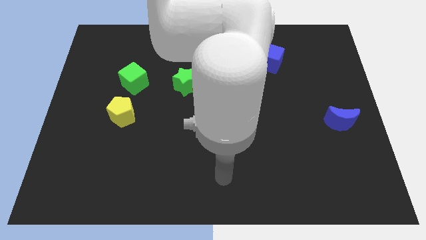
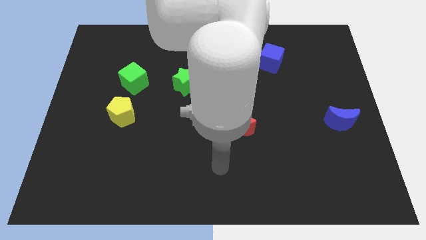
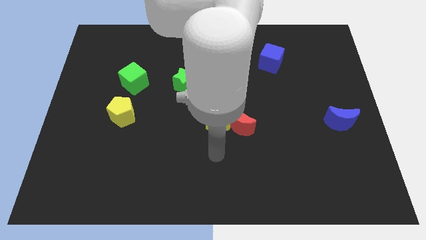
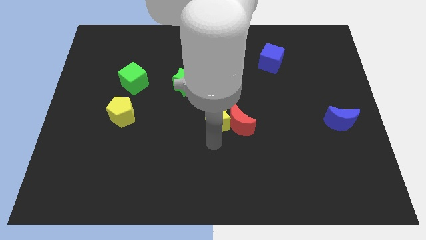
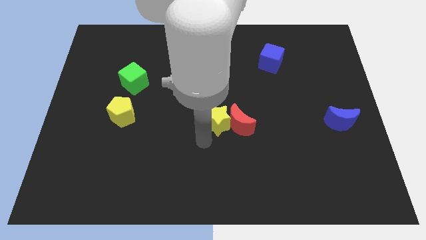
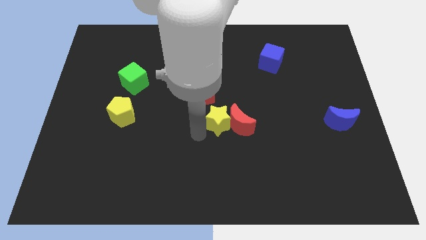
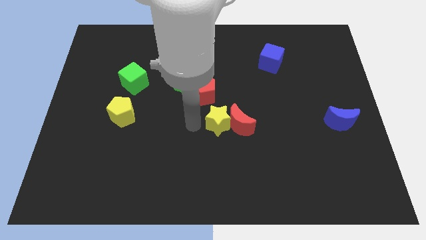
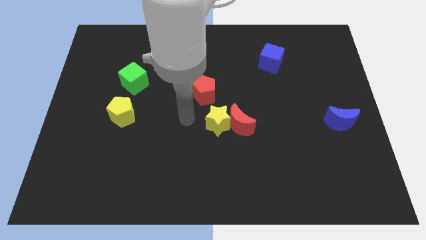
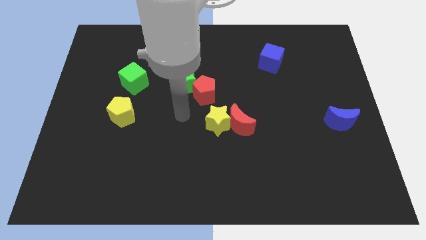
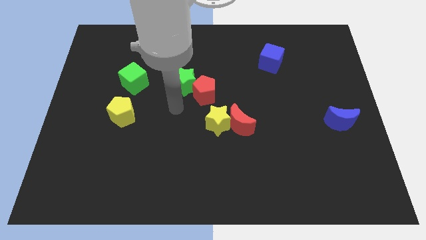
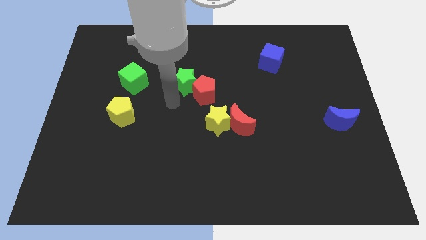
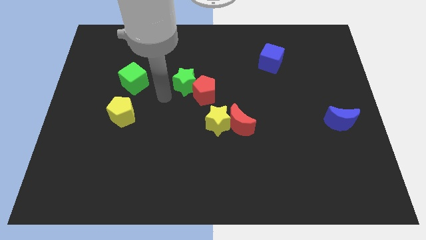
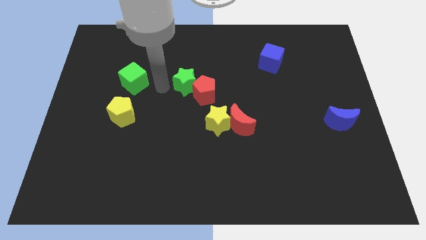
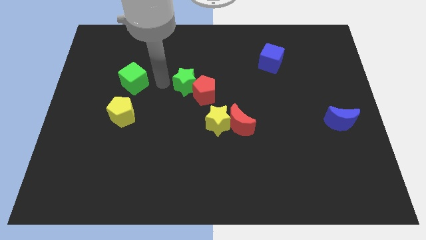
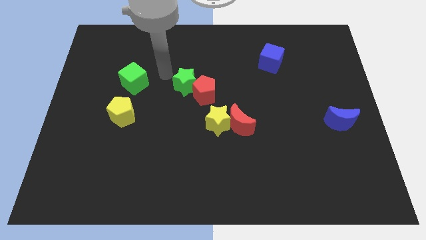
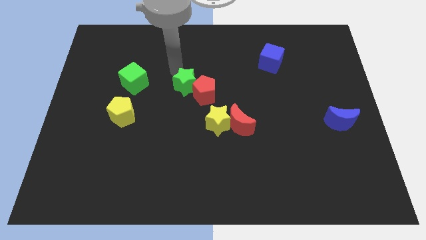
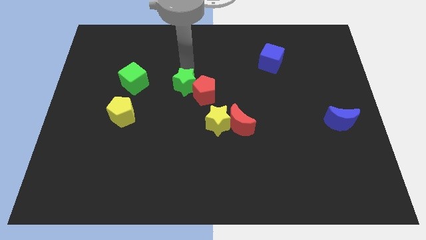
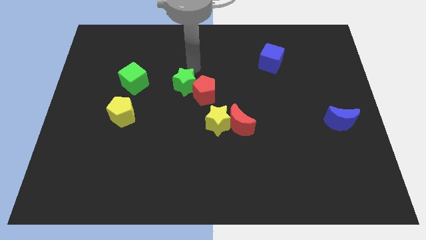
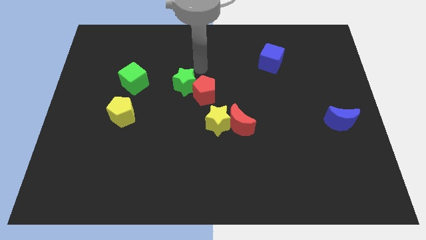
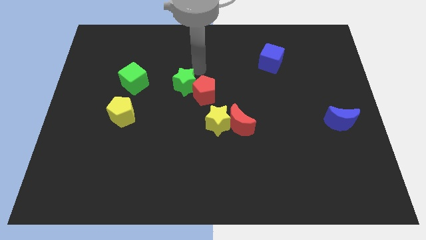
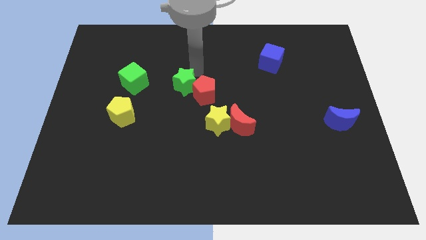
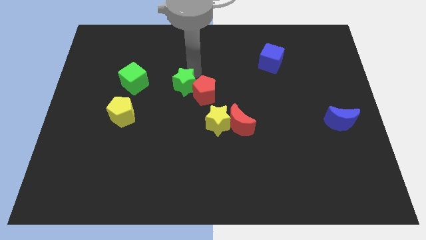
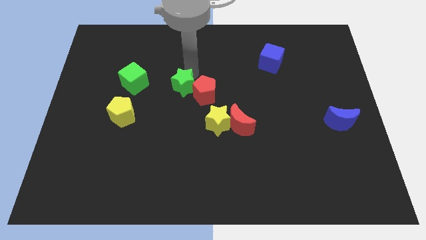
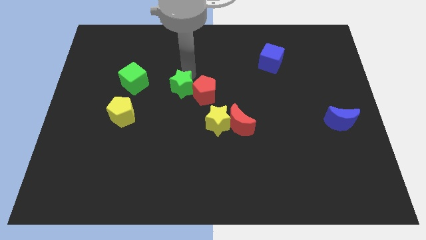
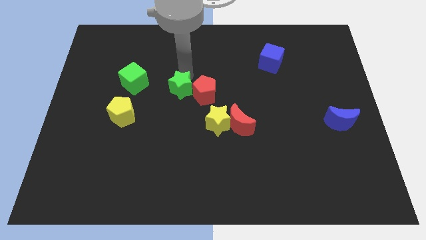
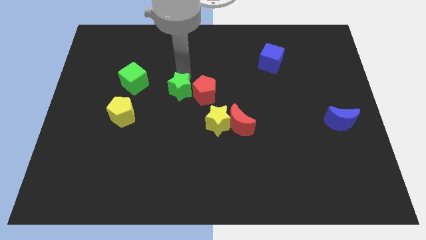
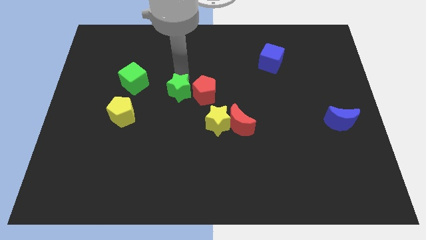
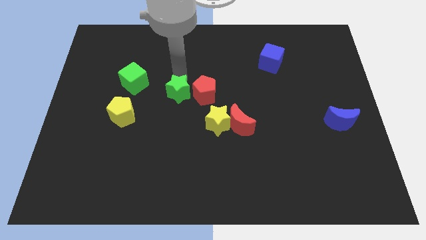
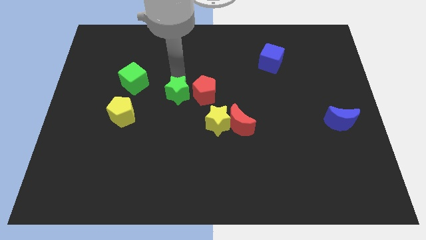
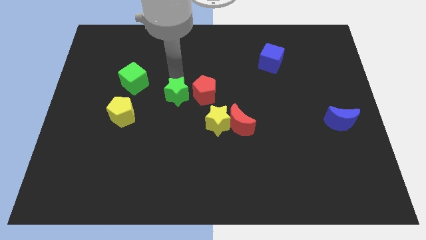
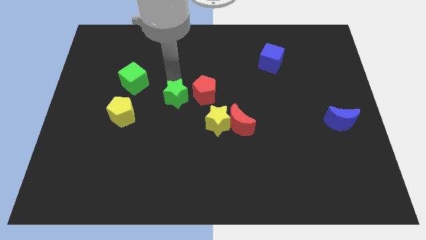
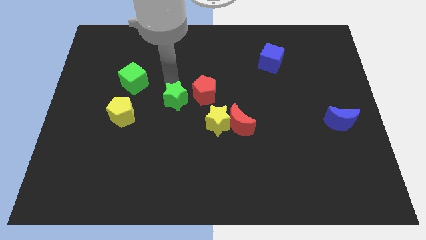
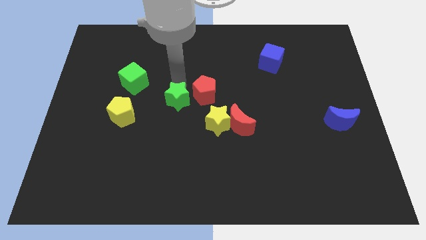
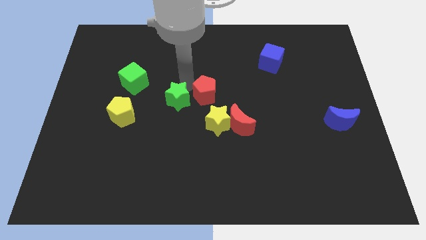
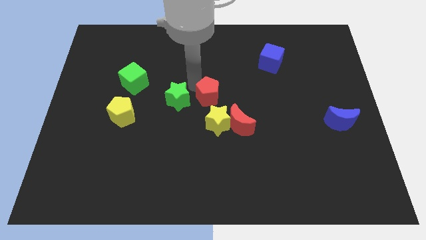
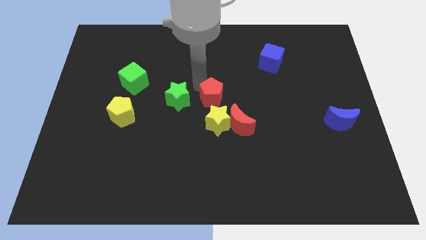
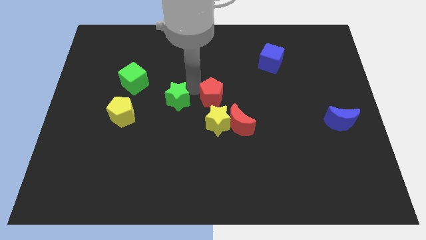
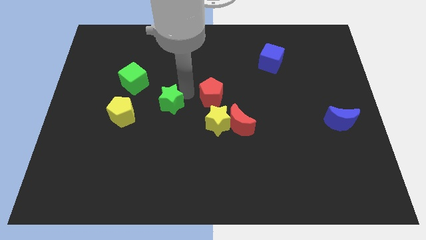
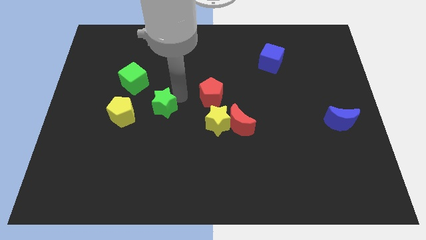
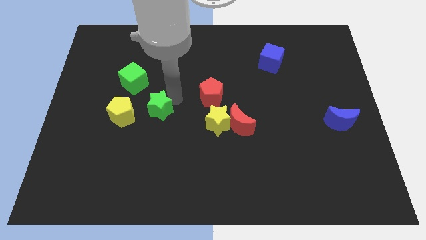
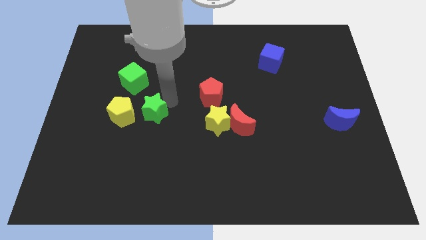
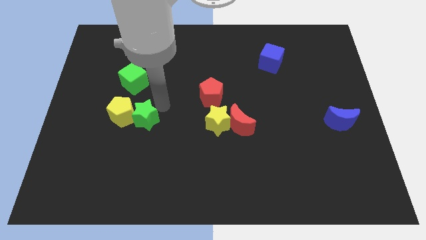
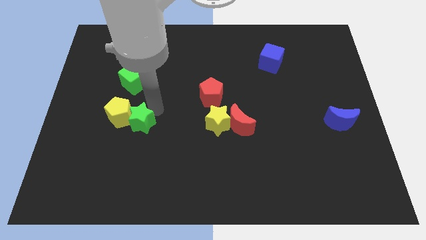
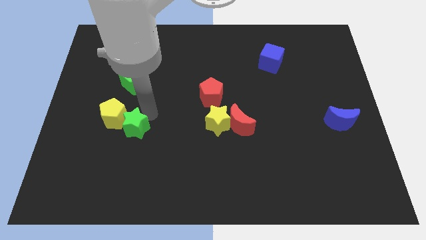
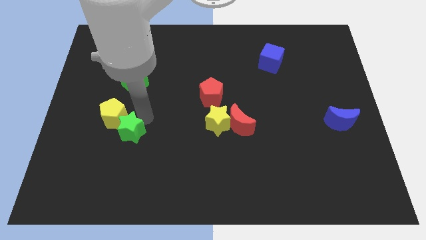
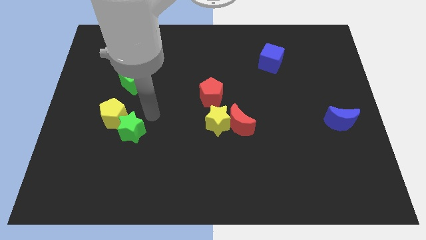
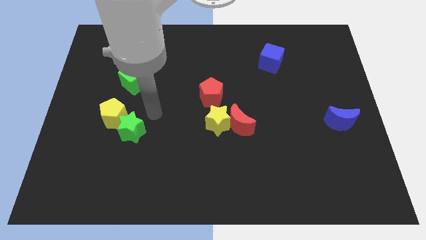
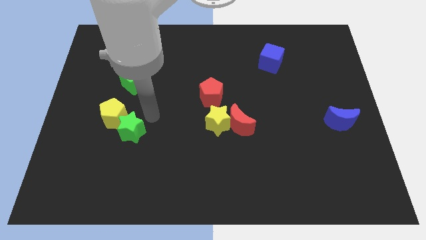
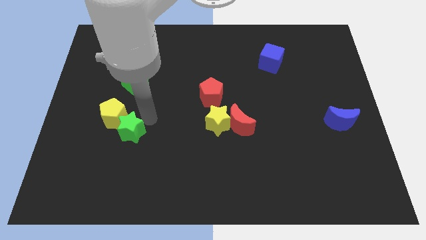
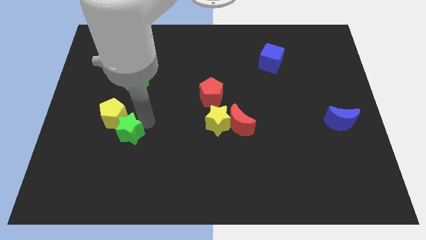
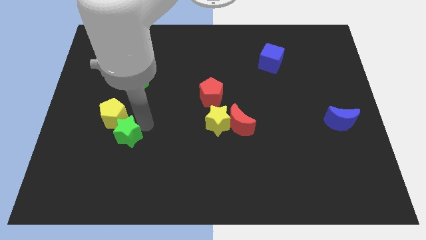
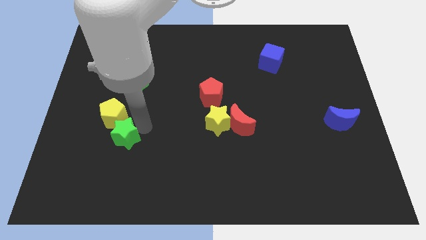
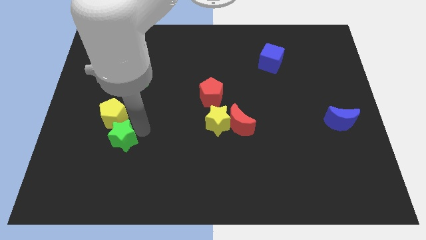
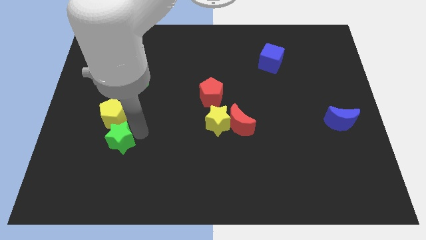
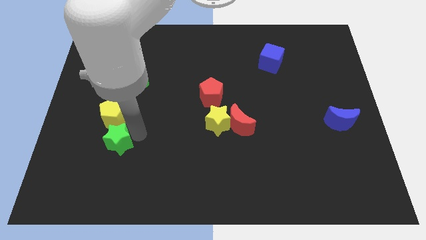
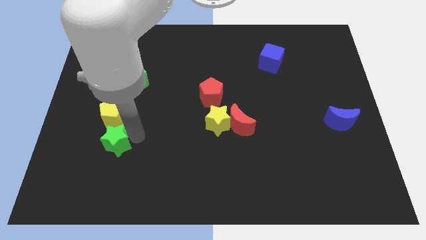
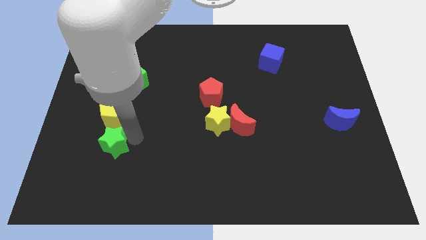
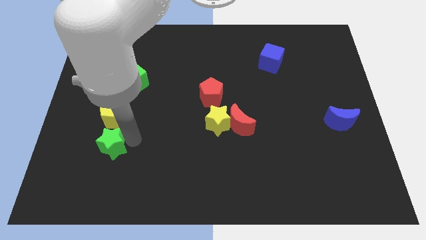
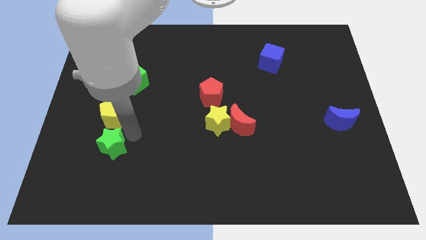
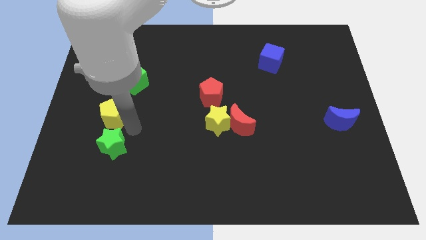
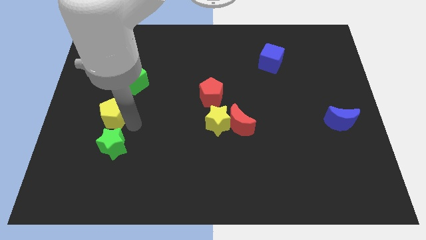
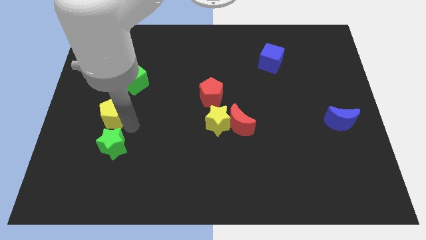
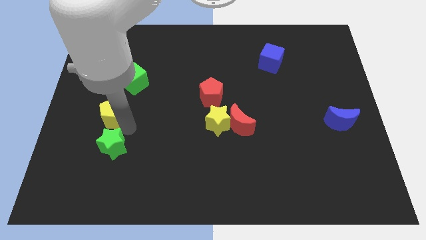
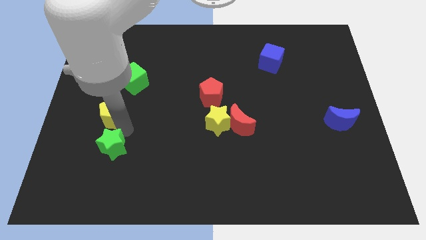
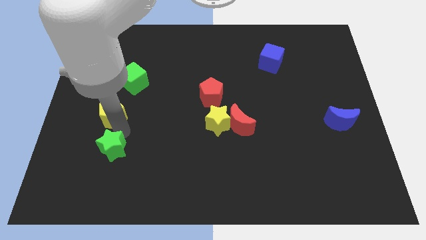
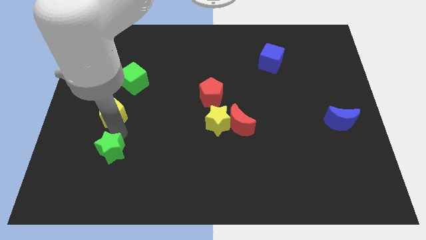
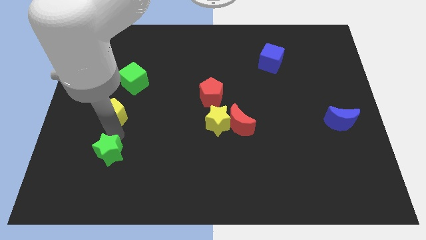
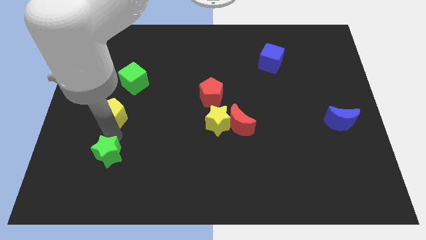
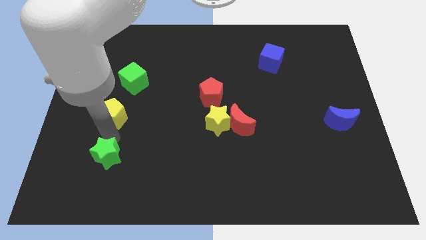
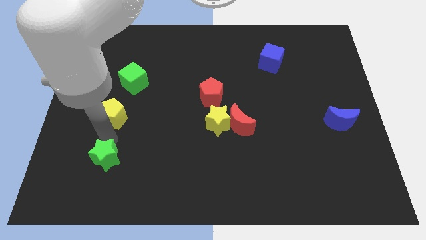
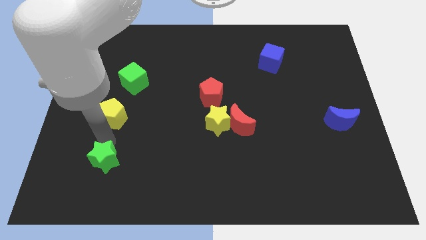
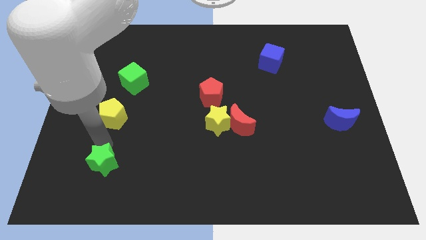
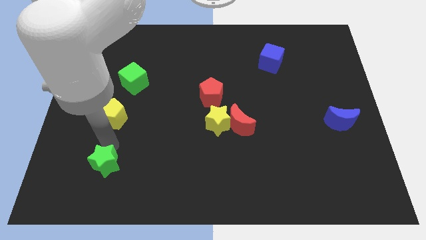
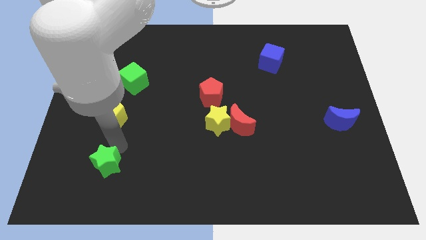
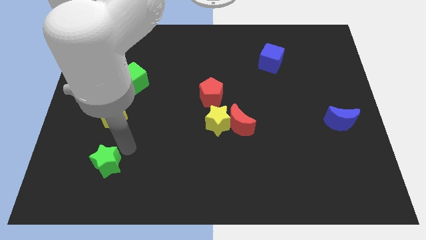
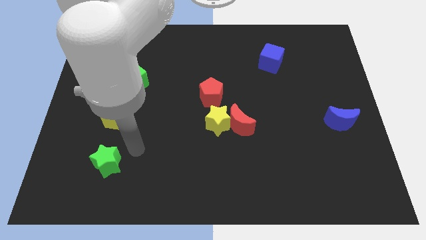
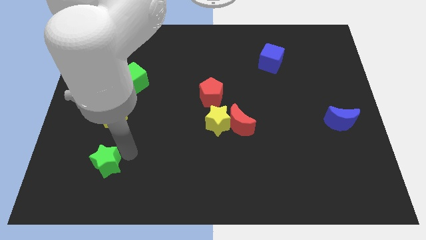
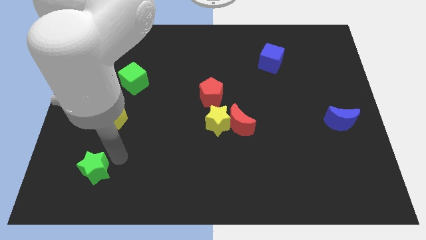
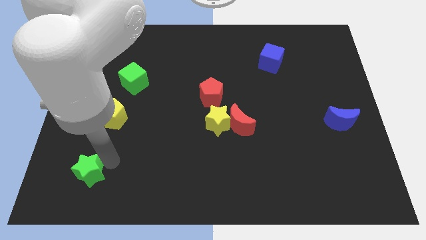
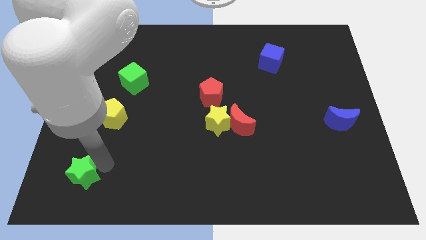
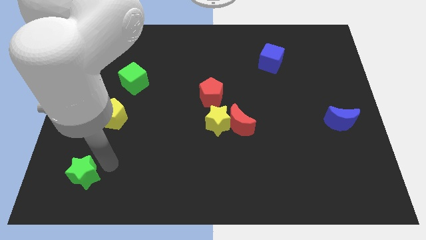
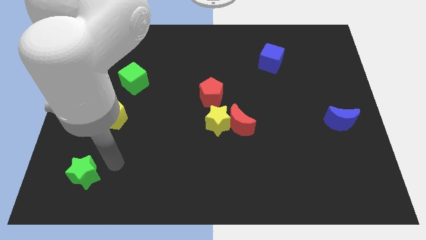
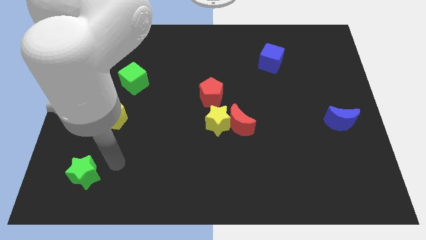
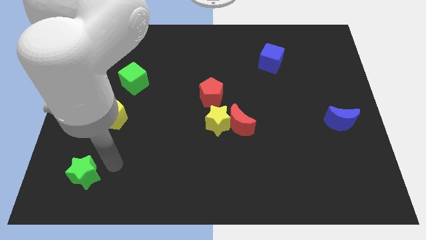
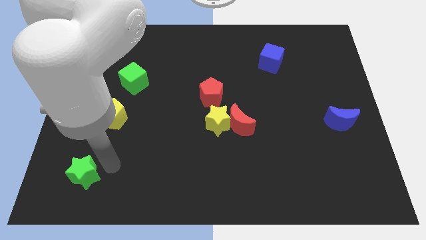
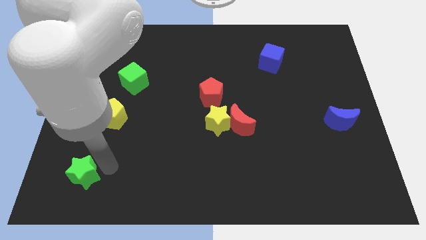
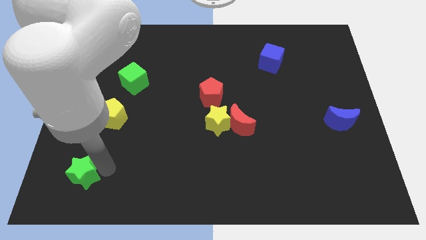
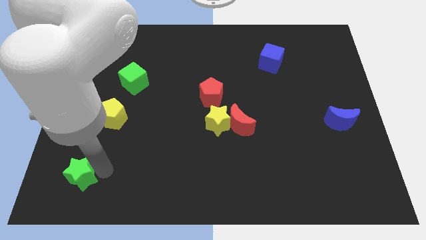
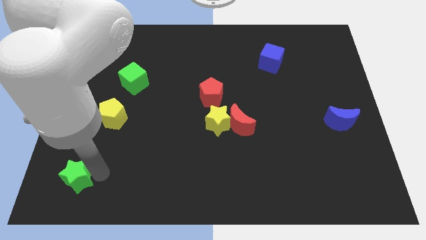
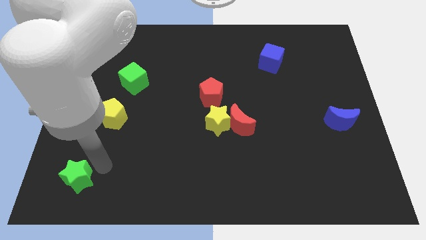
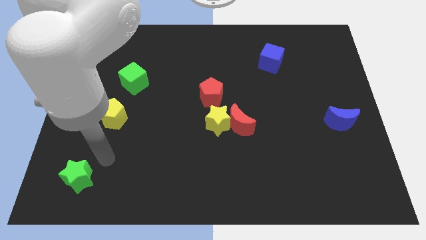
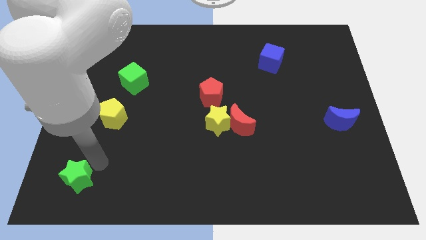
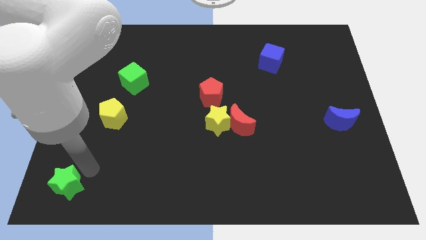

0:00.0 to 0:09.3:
put the green star to the bottom left corner
